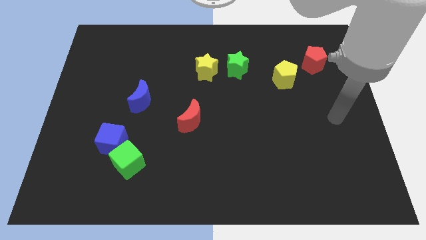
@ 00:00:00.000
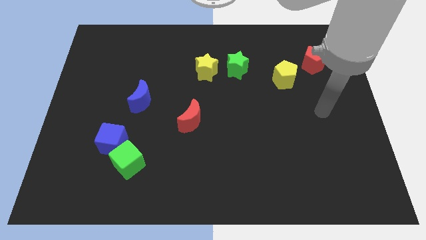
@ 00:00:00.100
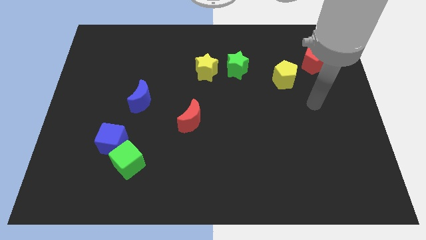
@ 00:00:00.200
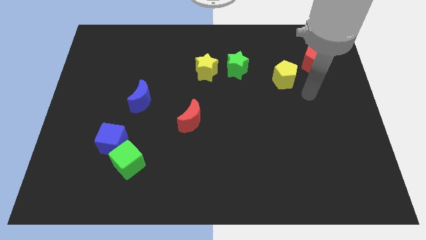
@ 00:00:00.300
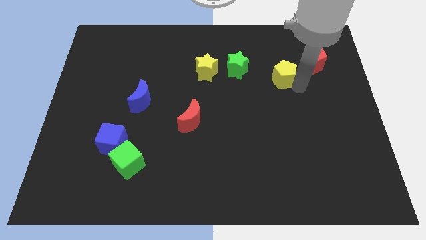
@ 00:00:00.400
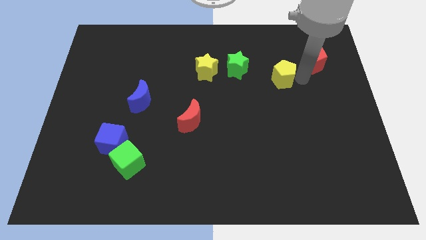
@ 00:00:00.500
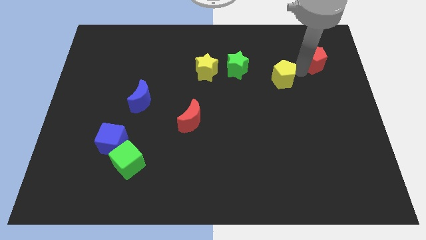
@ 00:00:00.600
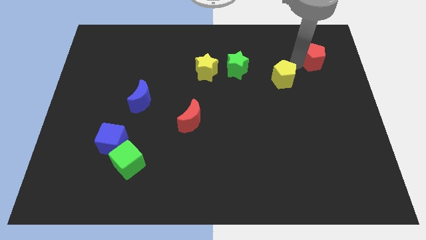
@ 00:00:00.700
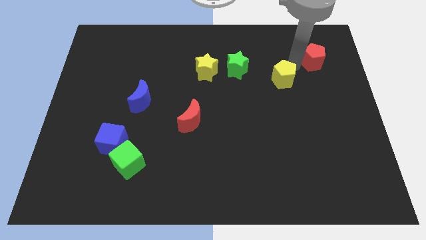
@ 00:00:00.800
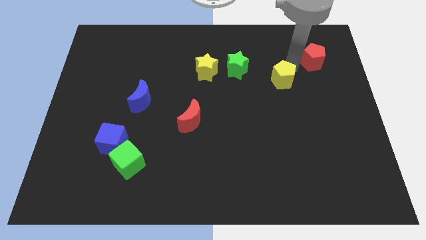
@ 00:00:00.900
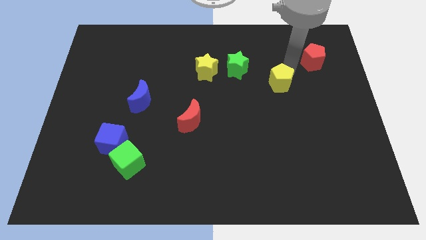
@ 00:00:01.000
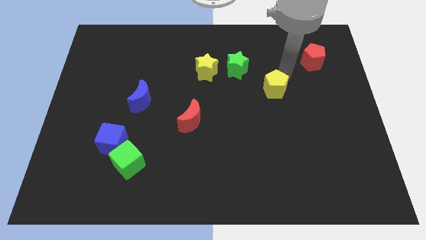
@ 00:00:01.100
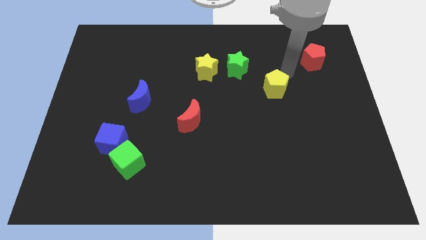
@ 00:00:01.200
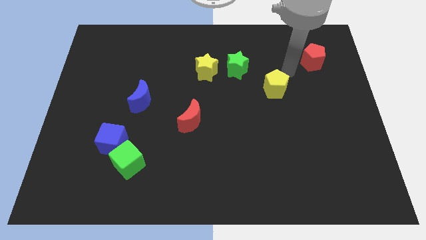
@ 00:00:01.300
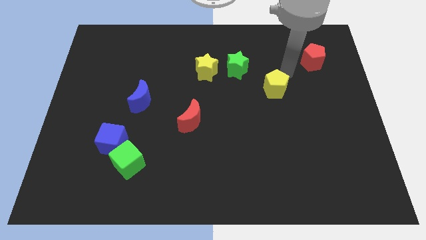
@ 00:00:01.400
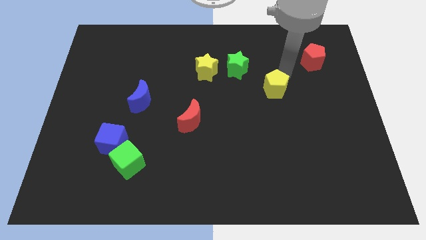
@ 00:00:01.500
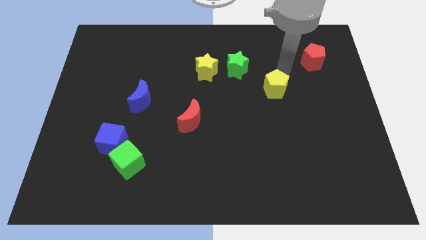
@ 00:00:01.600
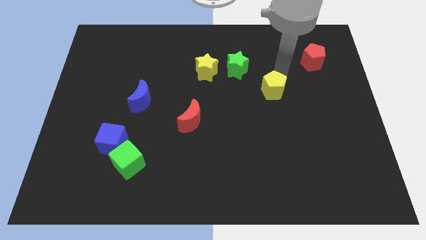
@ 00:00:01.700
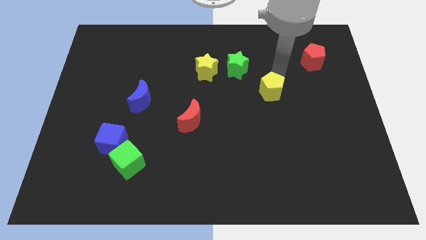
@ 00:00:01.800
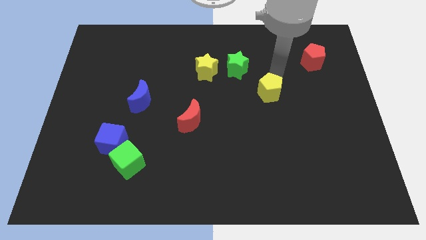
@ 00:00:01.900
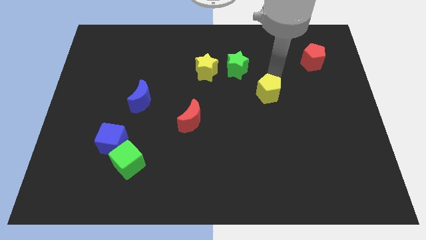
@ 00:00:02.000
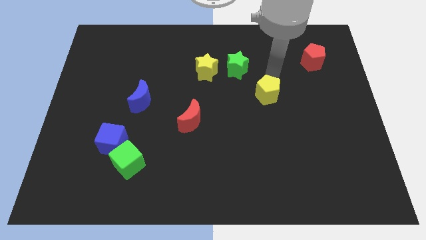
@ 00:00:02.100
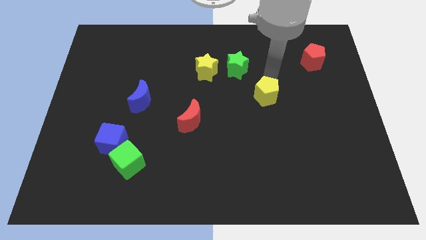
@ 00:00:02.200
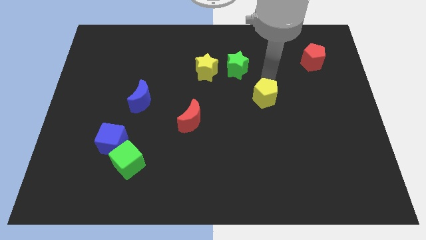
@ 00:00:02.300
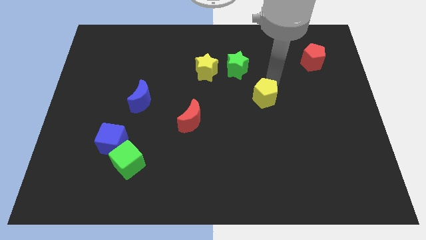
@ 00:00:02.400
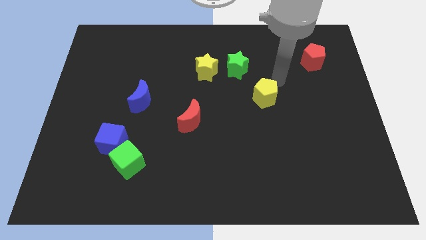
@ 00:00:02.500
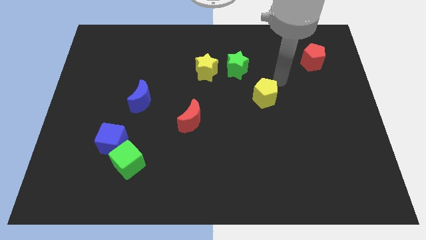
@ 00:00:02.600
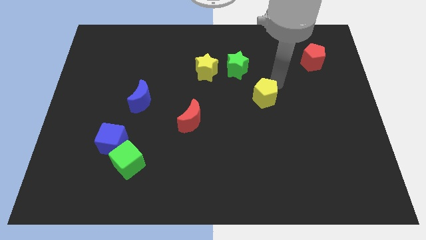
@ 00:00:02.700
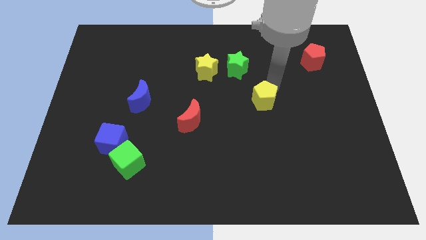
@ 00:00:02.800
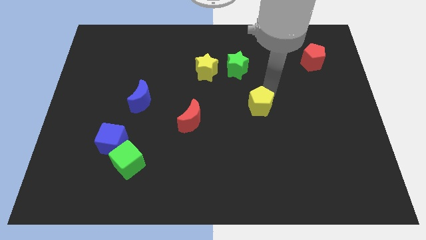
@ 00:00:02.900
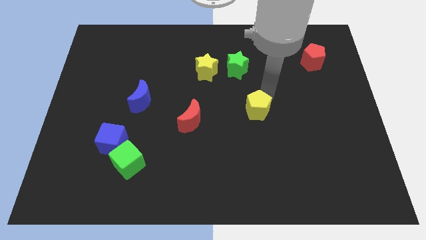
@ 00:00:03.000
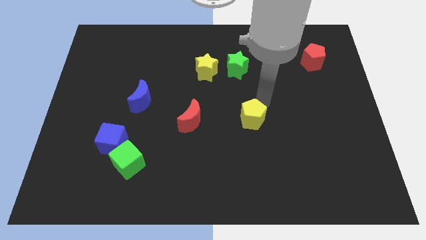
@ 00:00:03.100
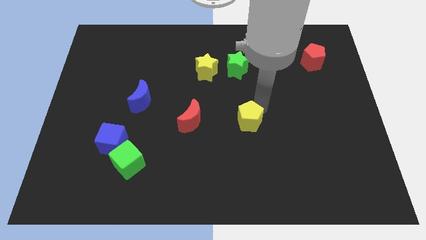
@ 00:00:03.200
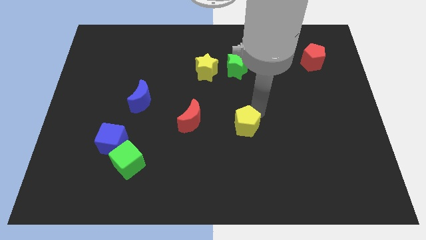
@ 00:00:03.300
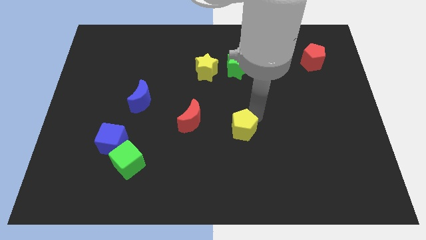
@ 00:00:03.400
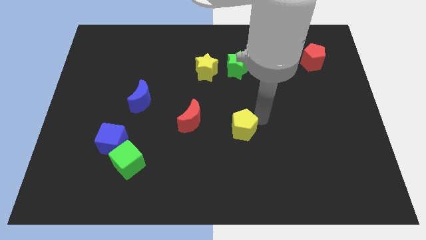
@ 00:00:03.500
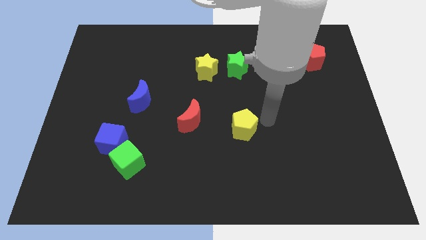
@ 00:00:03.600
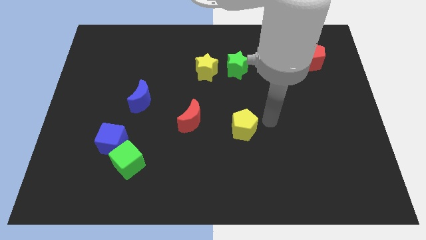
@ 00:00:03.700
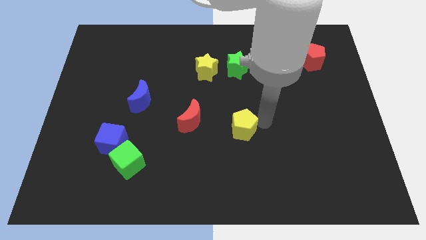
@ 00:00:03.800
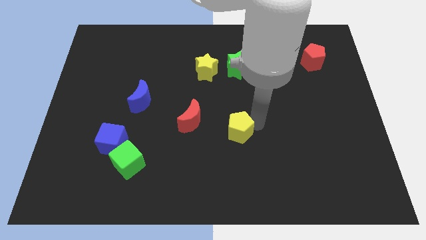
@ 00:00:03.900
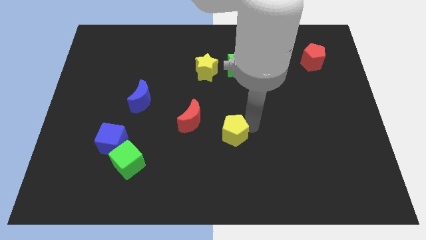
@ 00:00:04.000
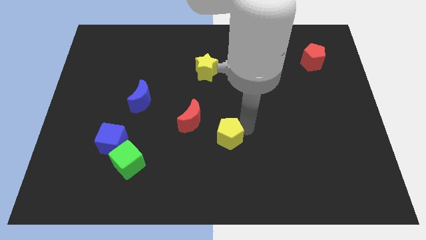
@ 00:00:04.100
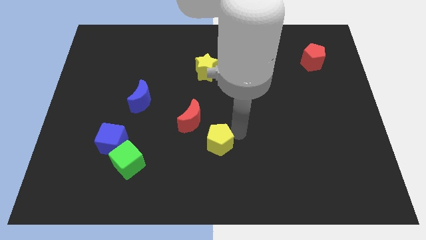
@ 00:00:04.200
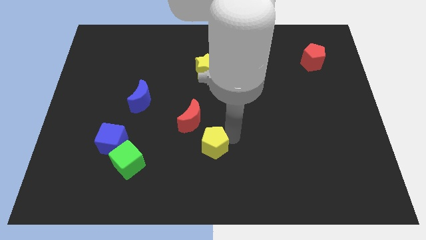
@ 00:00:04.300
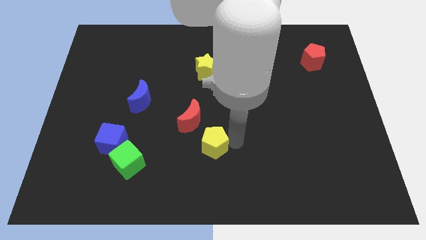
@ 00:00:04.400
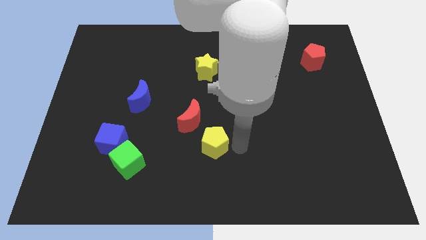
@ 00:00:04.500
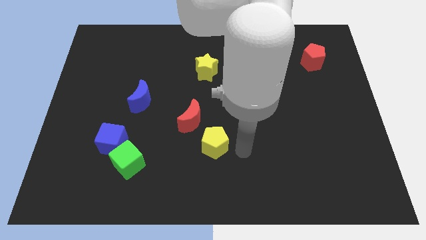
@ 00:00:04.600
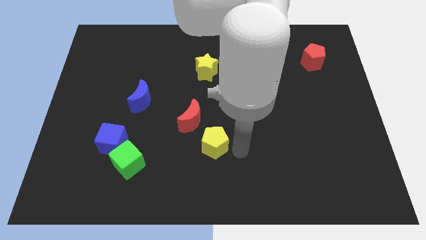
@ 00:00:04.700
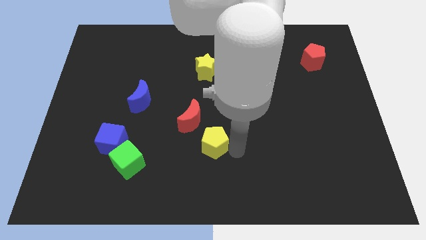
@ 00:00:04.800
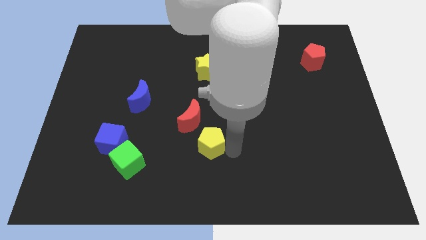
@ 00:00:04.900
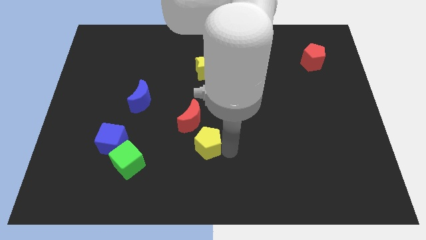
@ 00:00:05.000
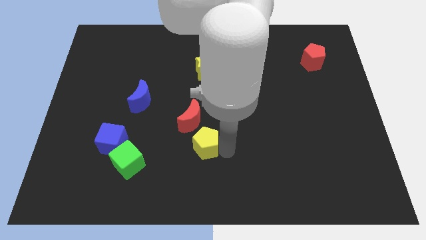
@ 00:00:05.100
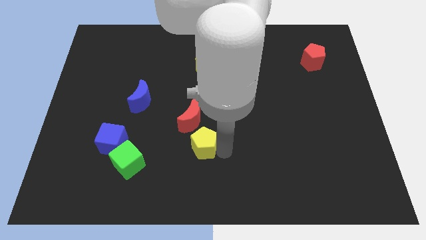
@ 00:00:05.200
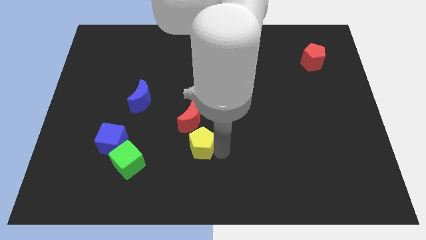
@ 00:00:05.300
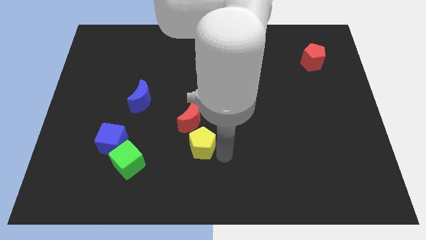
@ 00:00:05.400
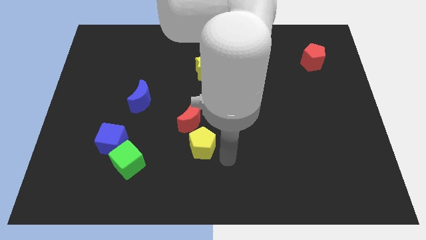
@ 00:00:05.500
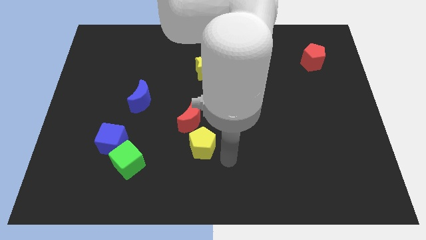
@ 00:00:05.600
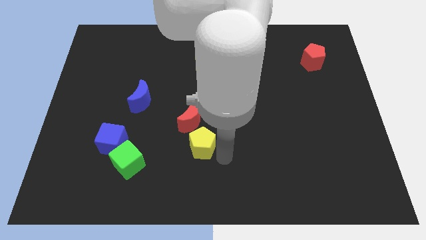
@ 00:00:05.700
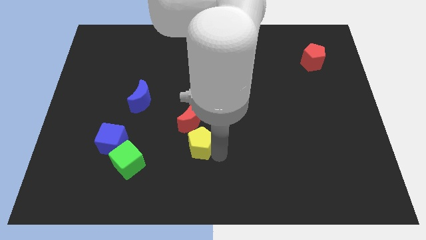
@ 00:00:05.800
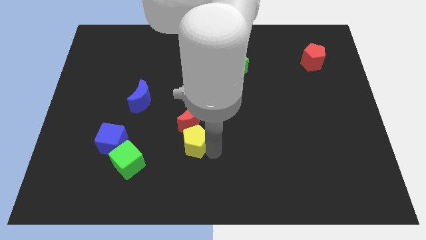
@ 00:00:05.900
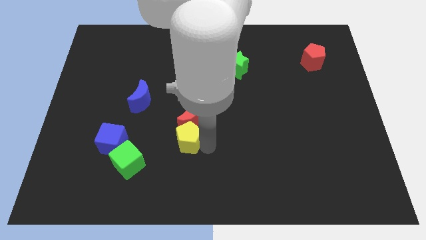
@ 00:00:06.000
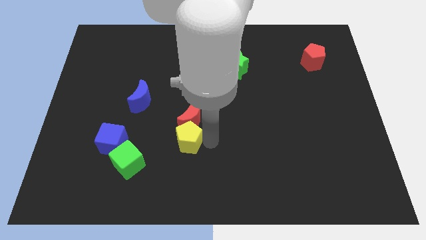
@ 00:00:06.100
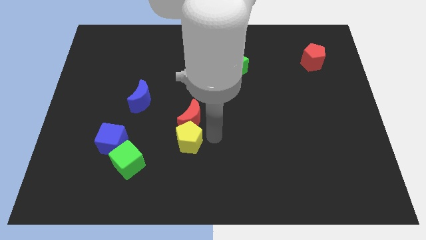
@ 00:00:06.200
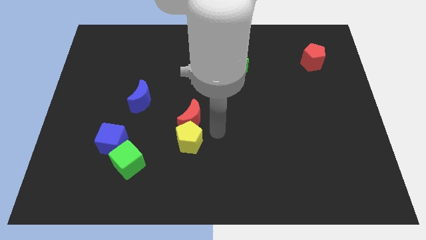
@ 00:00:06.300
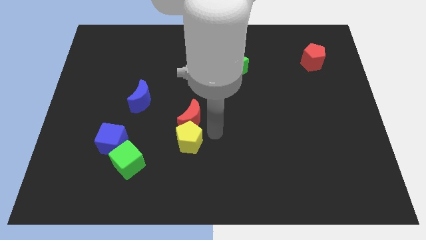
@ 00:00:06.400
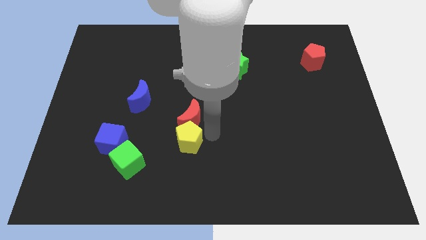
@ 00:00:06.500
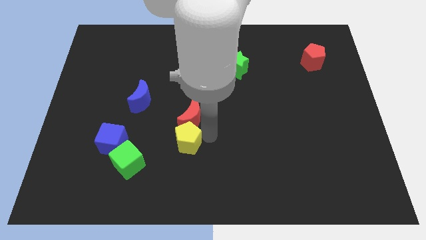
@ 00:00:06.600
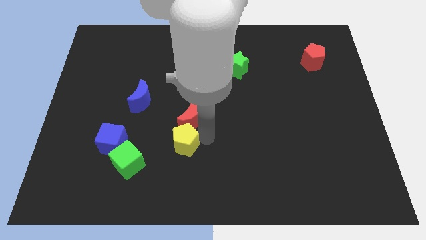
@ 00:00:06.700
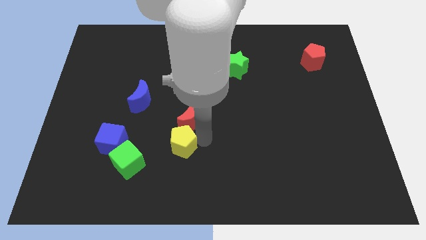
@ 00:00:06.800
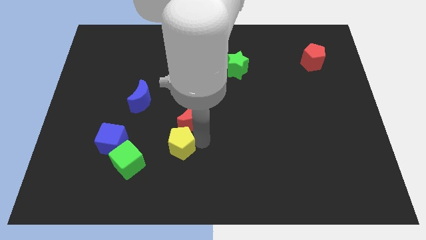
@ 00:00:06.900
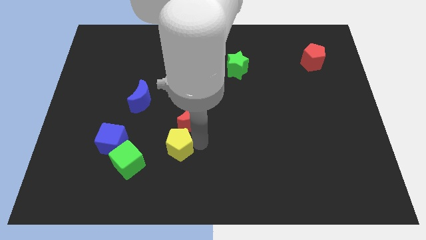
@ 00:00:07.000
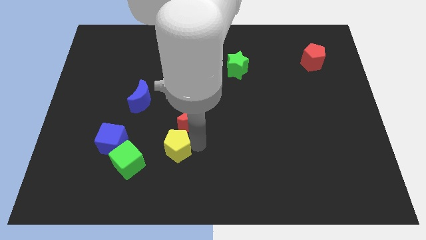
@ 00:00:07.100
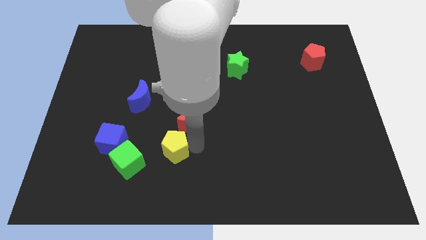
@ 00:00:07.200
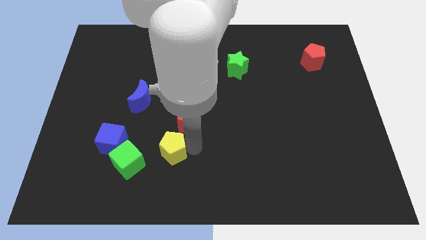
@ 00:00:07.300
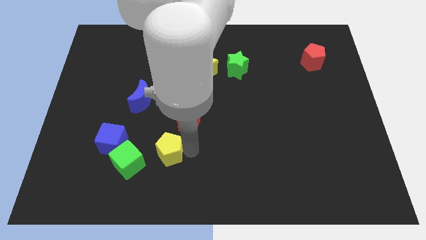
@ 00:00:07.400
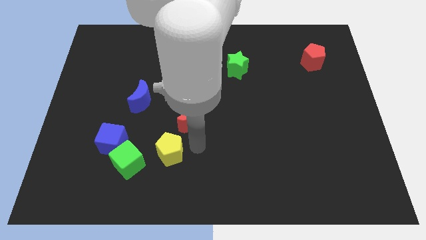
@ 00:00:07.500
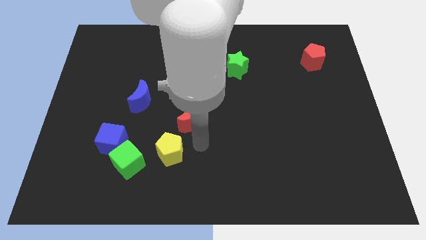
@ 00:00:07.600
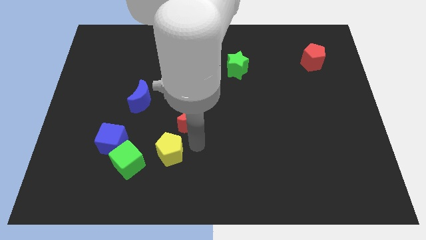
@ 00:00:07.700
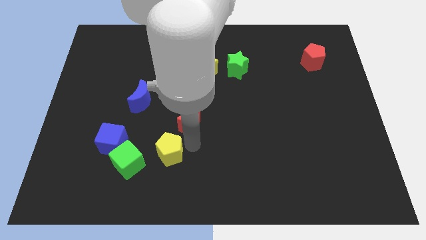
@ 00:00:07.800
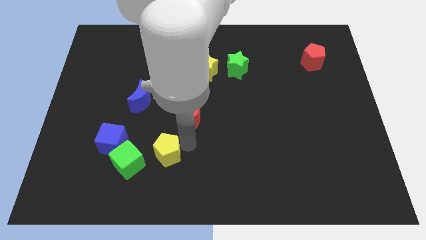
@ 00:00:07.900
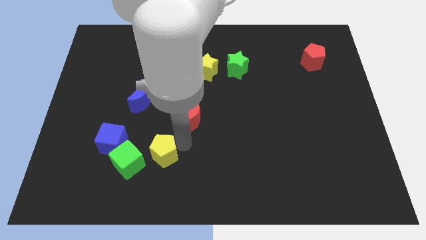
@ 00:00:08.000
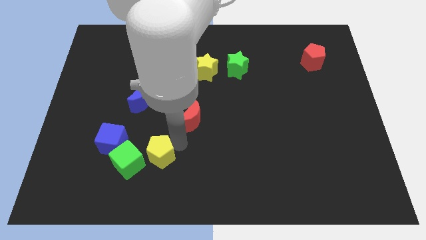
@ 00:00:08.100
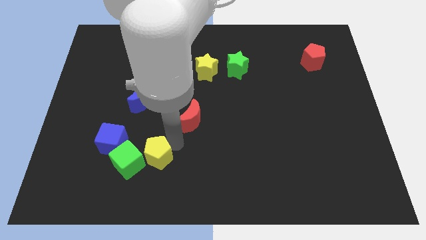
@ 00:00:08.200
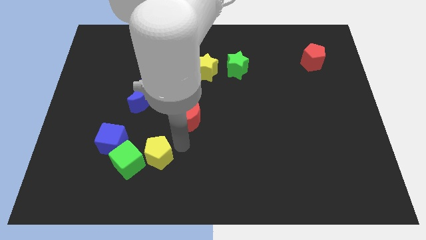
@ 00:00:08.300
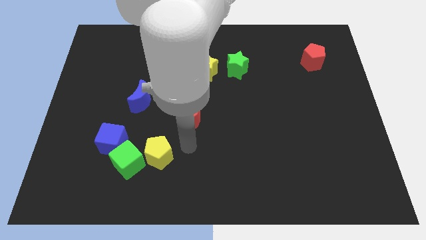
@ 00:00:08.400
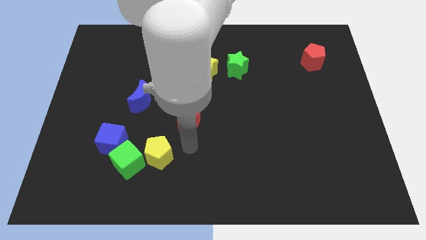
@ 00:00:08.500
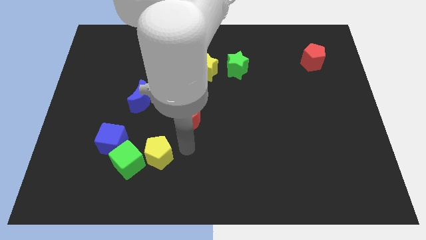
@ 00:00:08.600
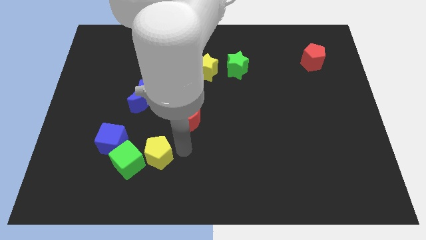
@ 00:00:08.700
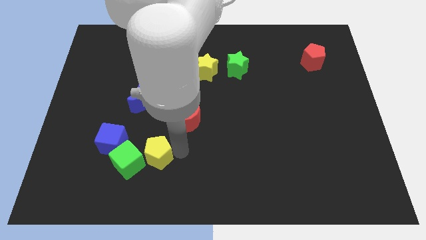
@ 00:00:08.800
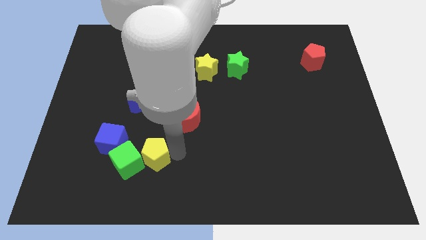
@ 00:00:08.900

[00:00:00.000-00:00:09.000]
move the yellow pentagon close to the green cube
